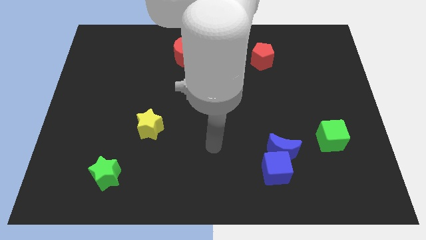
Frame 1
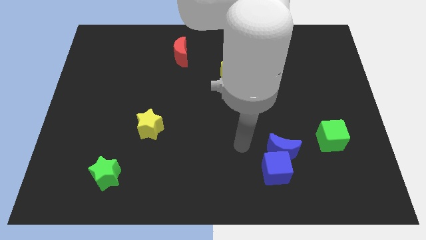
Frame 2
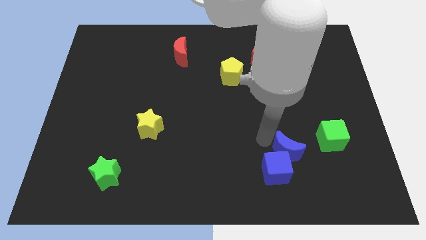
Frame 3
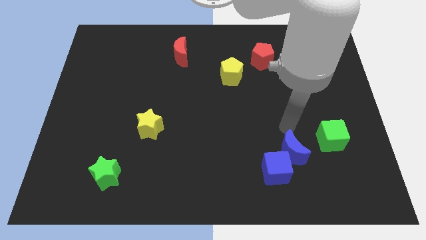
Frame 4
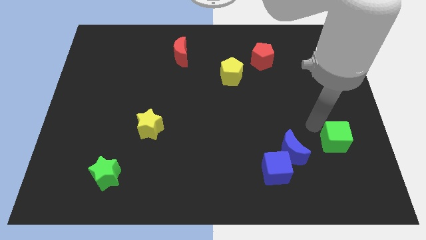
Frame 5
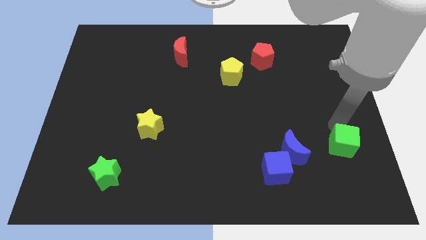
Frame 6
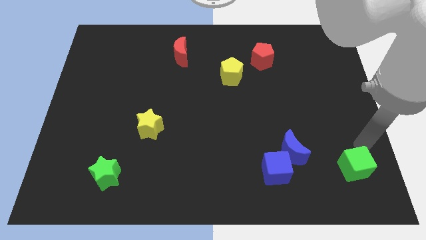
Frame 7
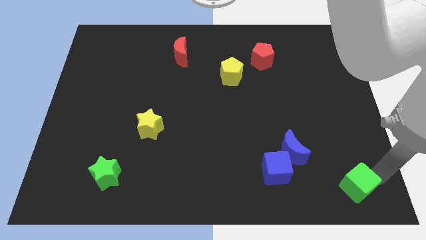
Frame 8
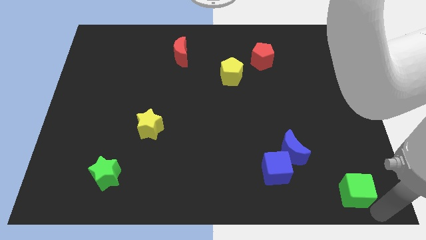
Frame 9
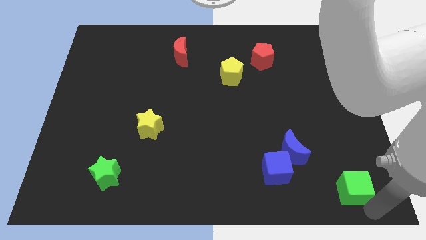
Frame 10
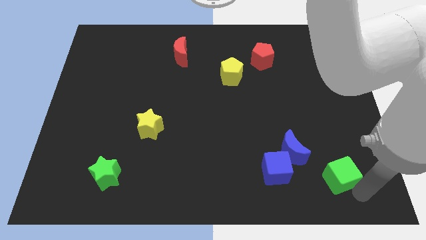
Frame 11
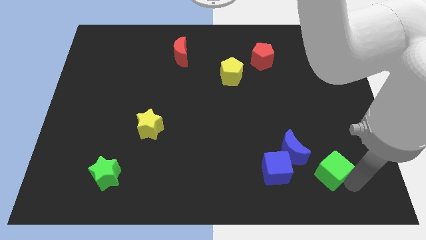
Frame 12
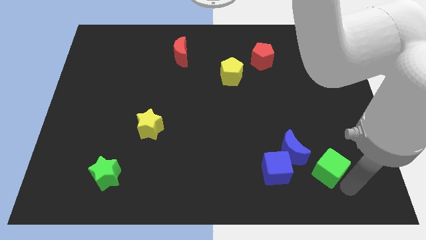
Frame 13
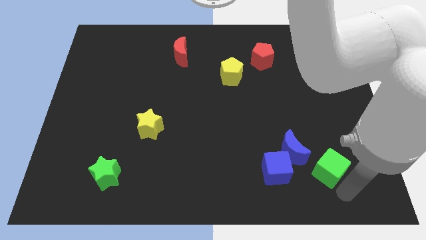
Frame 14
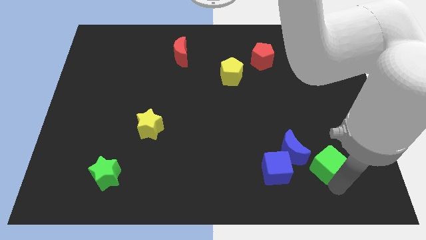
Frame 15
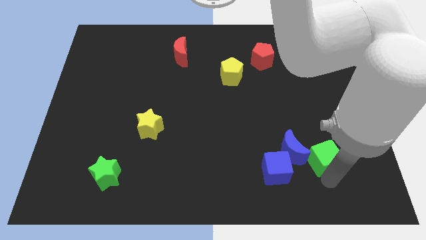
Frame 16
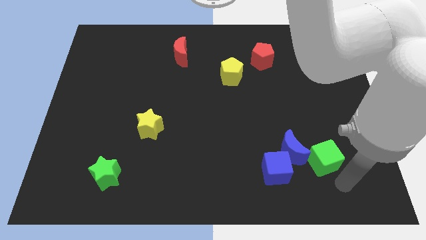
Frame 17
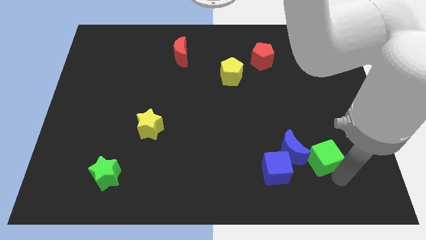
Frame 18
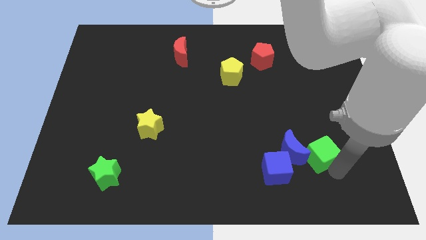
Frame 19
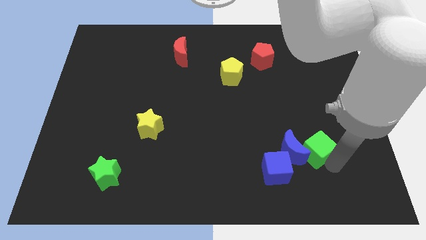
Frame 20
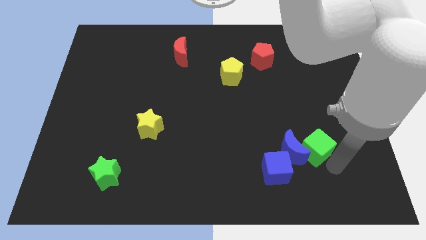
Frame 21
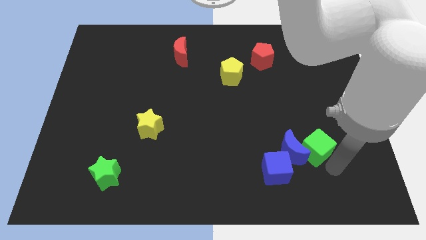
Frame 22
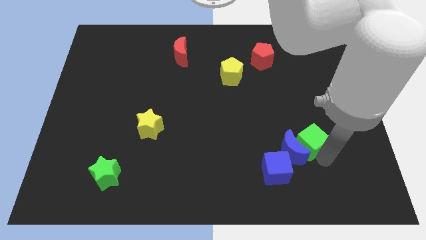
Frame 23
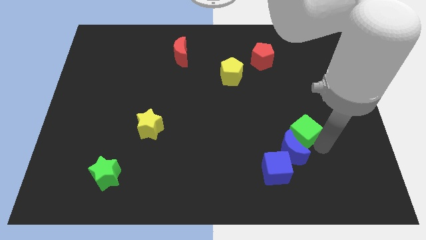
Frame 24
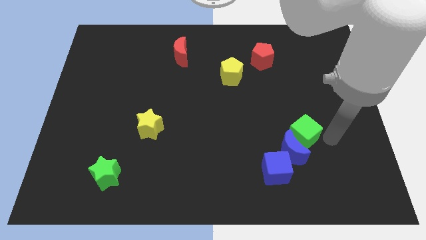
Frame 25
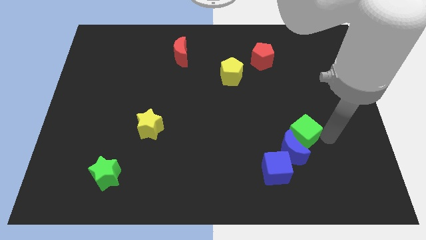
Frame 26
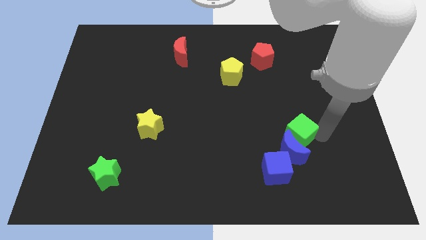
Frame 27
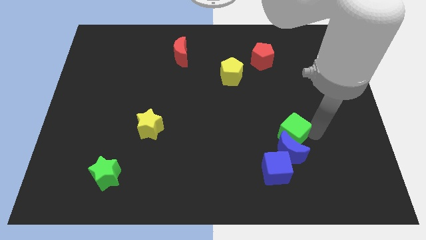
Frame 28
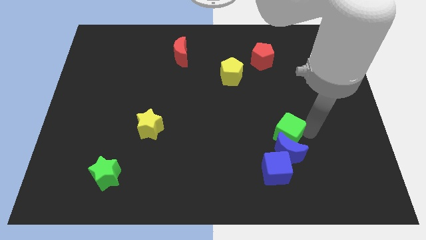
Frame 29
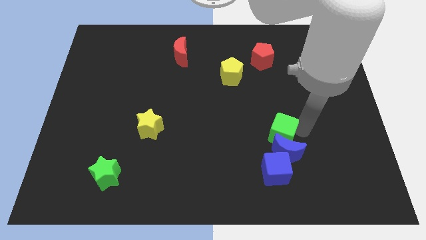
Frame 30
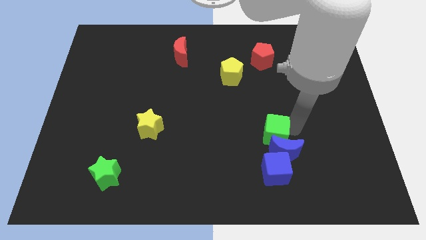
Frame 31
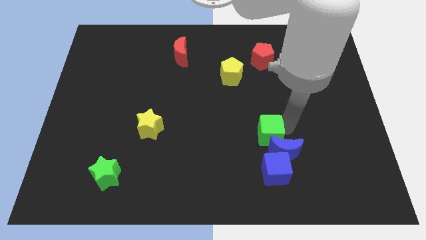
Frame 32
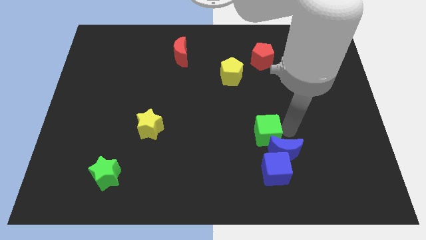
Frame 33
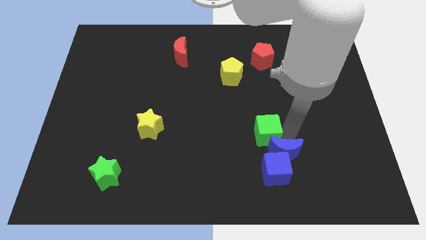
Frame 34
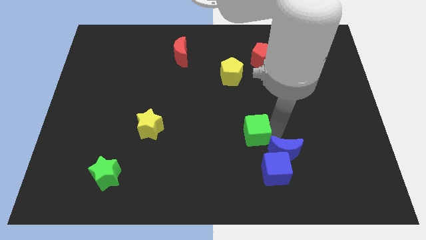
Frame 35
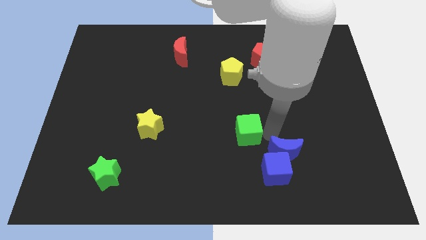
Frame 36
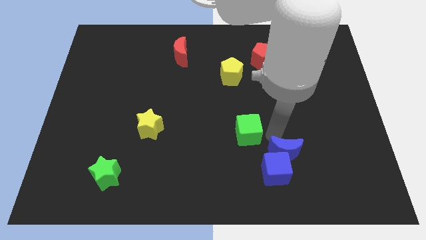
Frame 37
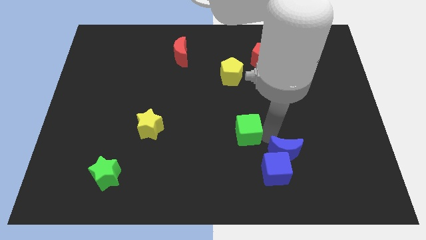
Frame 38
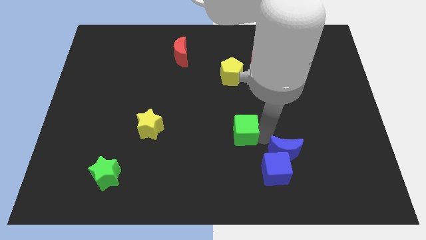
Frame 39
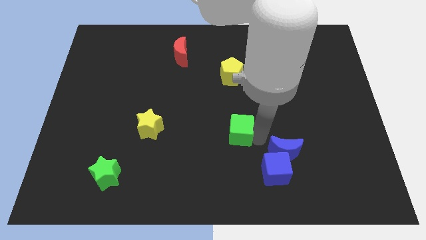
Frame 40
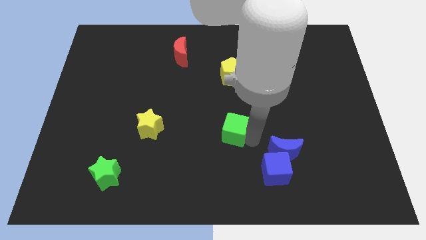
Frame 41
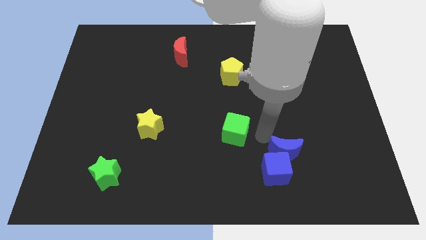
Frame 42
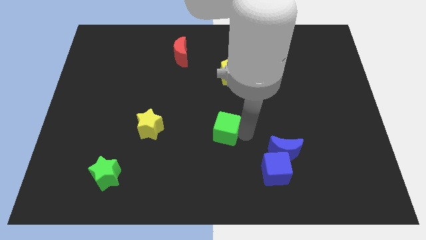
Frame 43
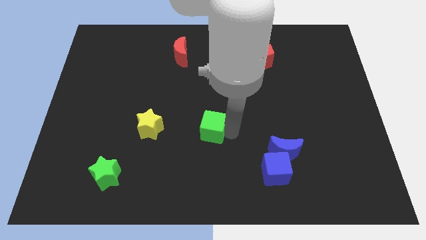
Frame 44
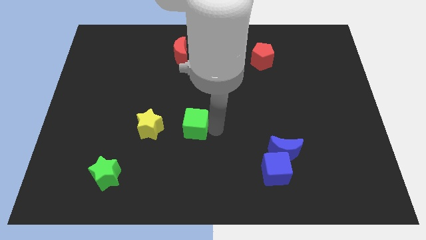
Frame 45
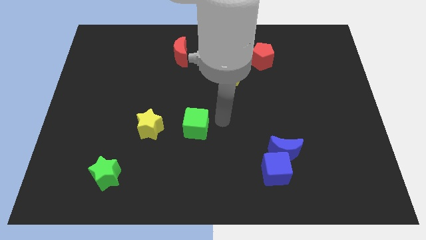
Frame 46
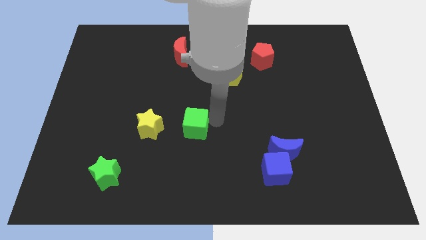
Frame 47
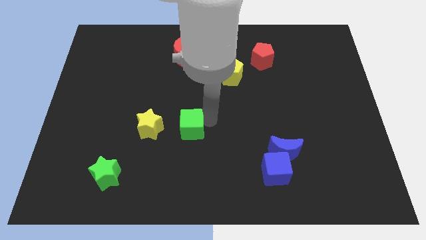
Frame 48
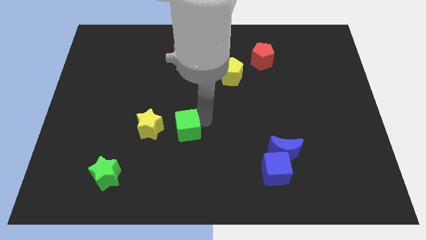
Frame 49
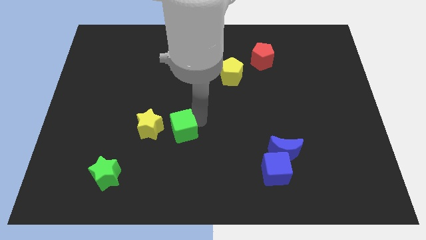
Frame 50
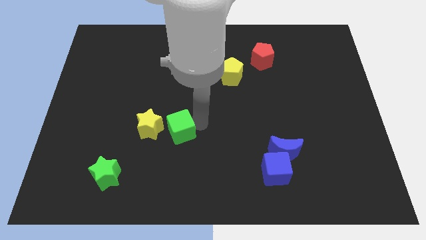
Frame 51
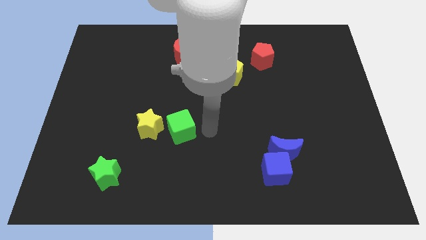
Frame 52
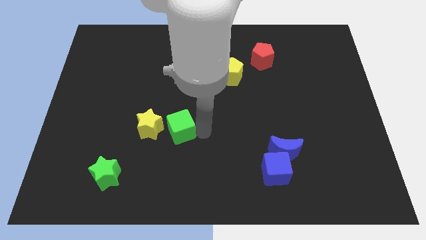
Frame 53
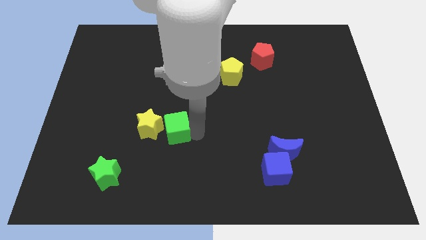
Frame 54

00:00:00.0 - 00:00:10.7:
push the green cube towards the yellow star

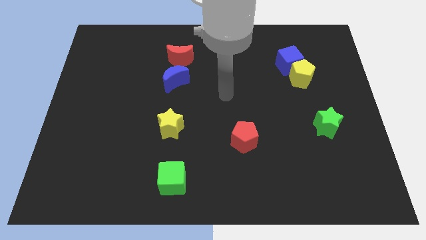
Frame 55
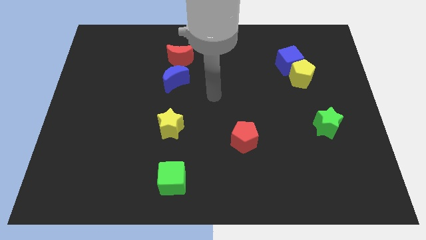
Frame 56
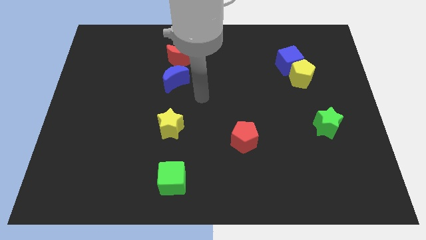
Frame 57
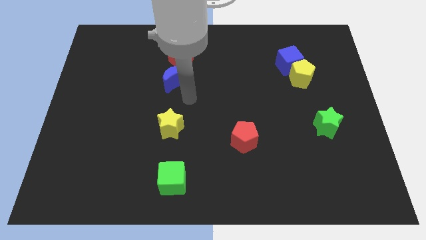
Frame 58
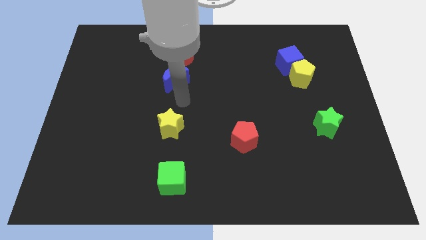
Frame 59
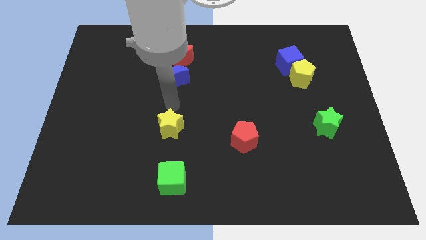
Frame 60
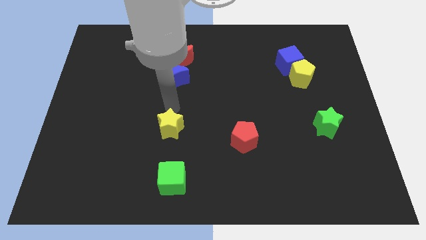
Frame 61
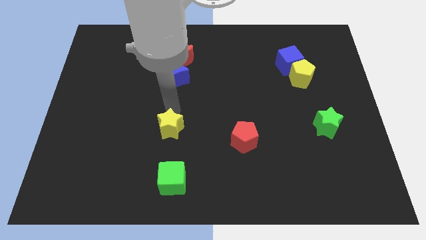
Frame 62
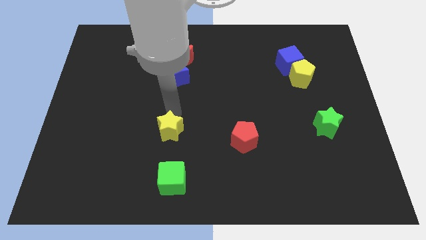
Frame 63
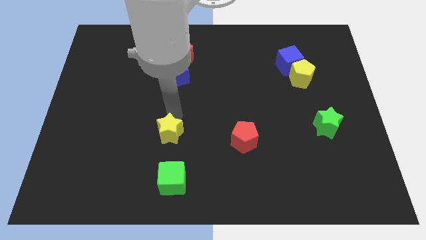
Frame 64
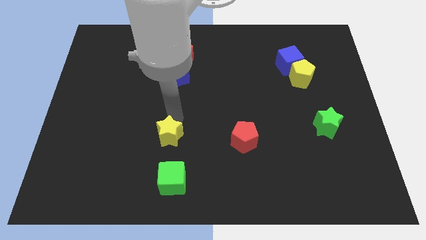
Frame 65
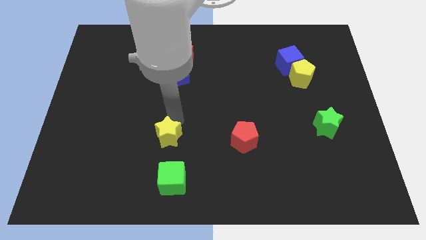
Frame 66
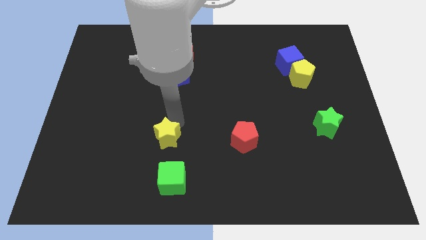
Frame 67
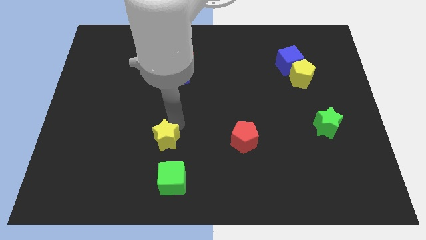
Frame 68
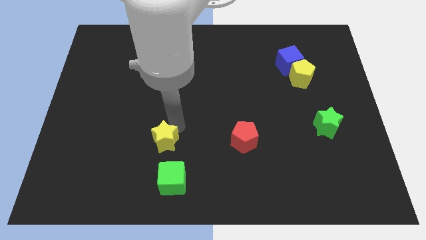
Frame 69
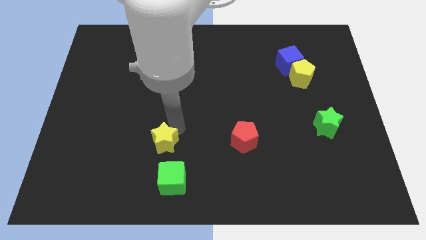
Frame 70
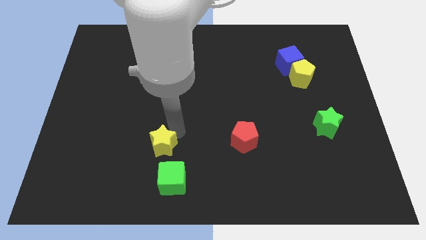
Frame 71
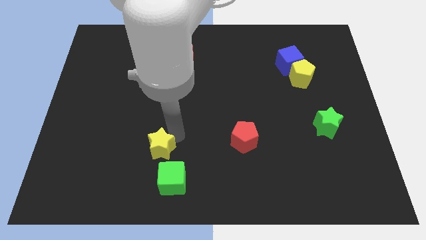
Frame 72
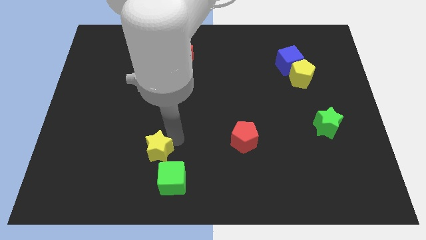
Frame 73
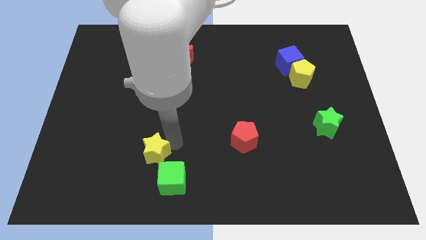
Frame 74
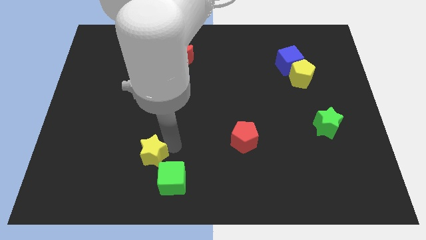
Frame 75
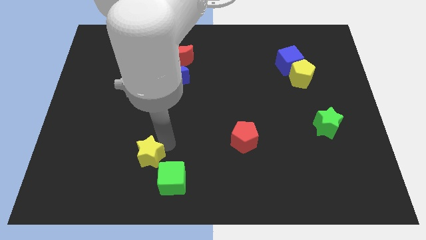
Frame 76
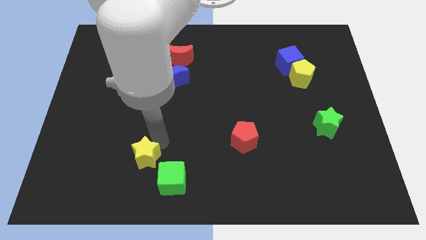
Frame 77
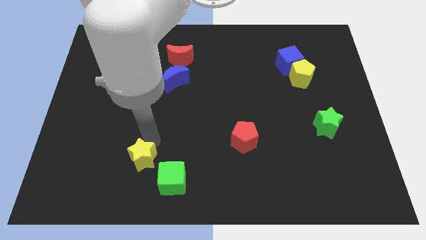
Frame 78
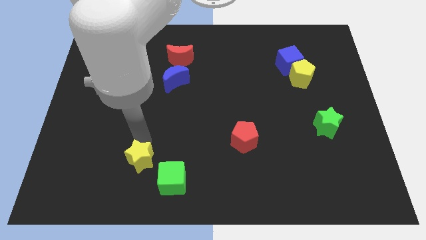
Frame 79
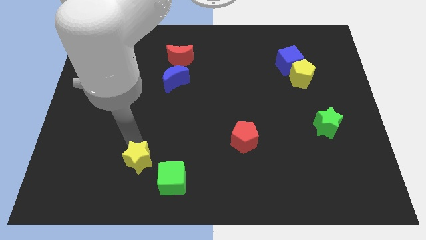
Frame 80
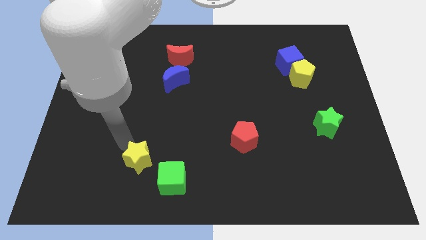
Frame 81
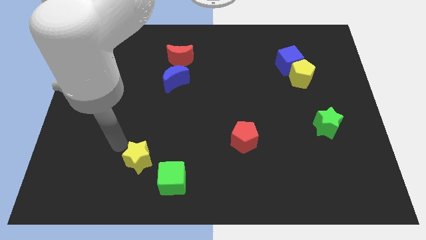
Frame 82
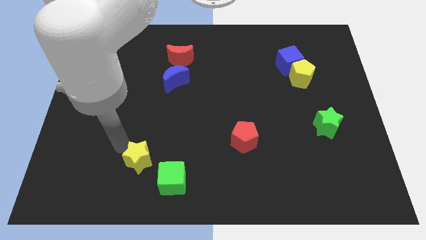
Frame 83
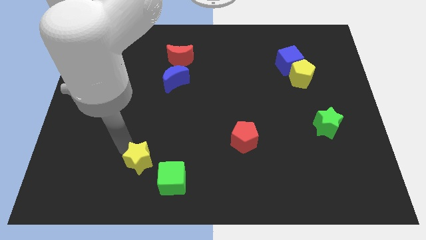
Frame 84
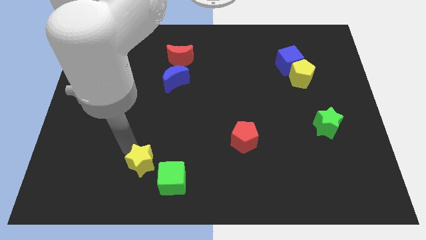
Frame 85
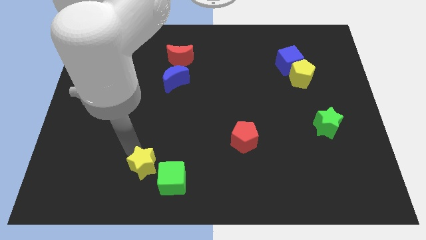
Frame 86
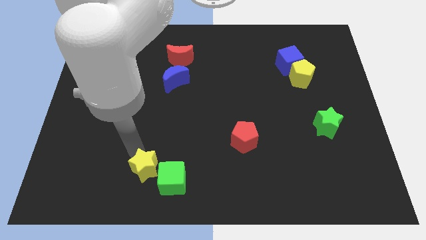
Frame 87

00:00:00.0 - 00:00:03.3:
move the yellow star towards the green cube
